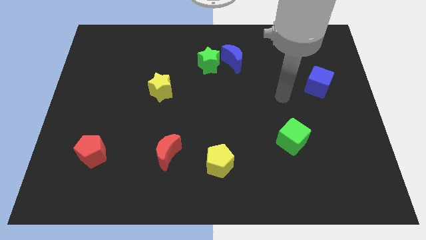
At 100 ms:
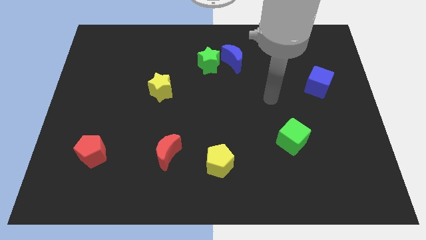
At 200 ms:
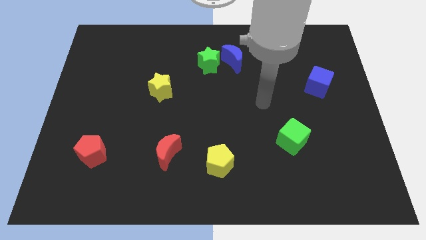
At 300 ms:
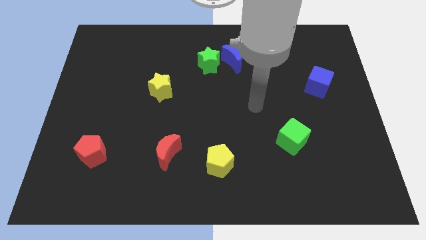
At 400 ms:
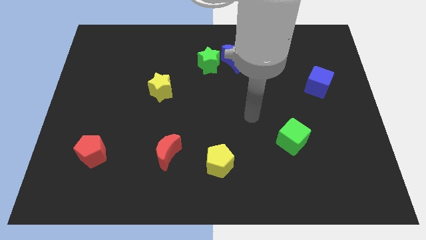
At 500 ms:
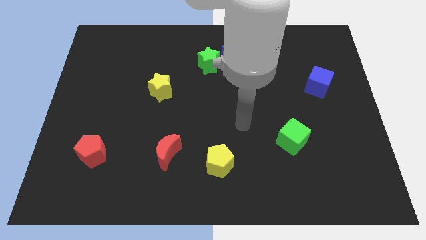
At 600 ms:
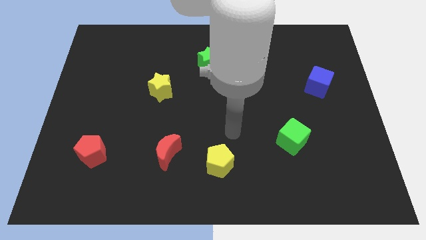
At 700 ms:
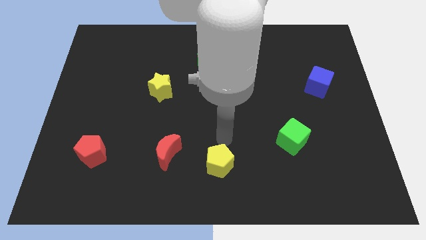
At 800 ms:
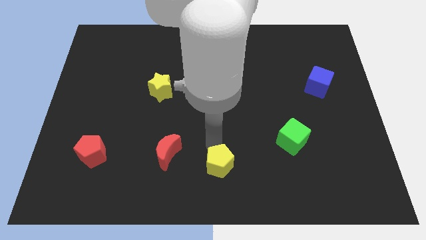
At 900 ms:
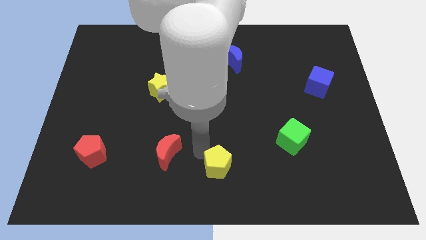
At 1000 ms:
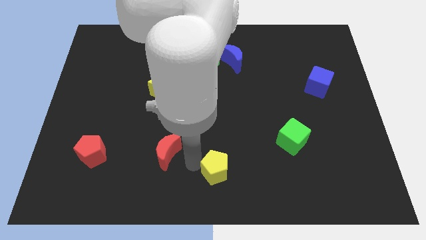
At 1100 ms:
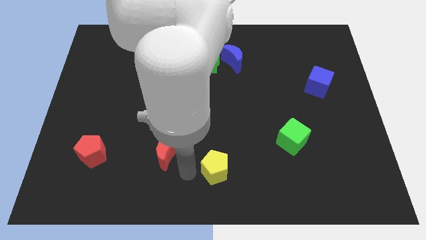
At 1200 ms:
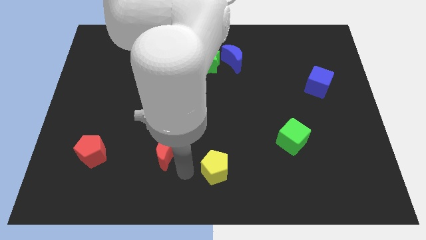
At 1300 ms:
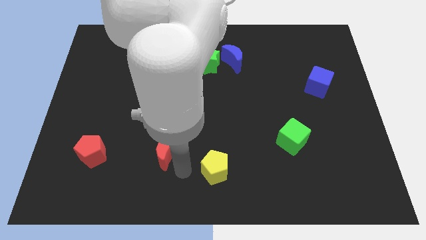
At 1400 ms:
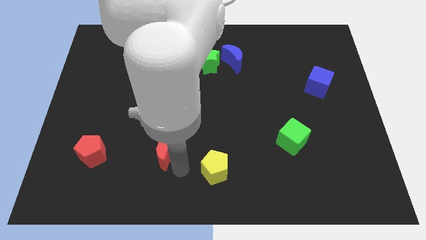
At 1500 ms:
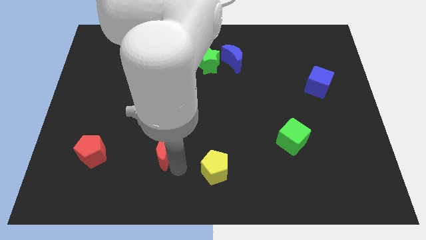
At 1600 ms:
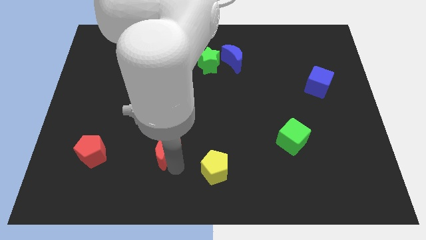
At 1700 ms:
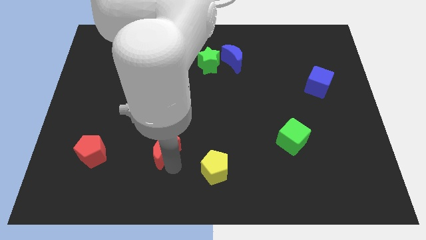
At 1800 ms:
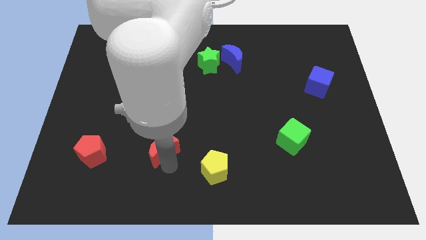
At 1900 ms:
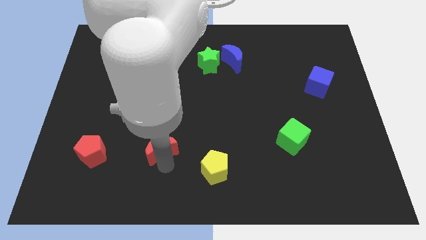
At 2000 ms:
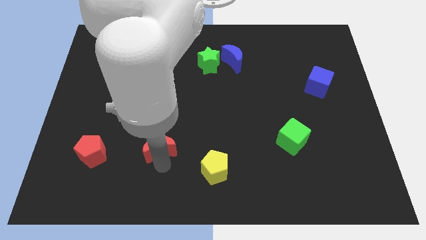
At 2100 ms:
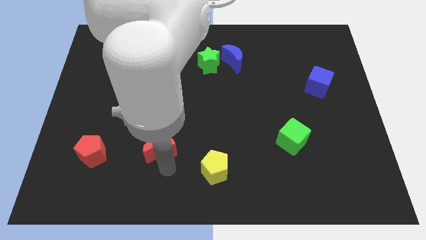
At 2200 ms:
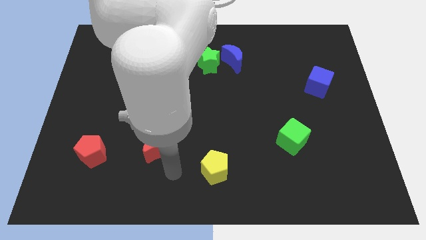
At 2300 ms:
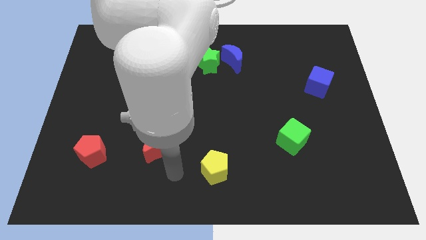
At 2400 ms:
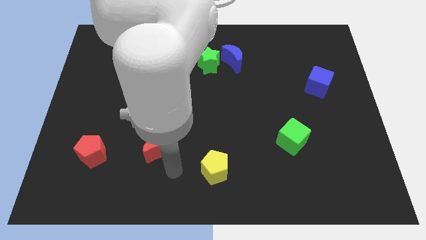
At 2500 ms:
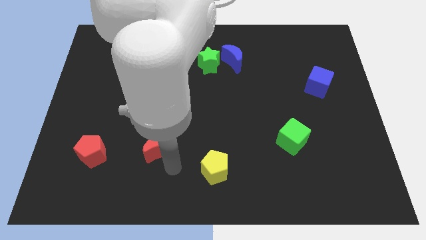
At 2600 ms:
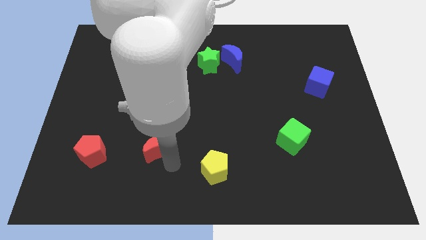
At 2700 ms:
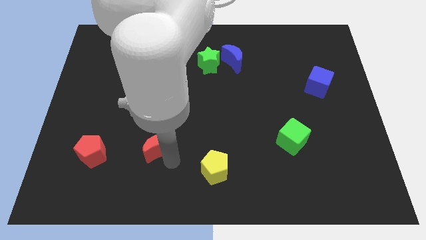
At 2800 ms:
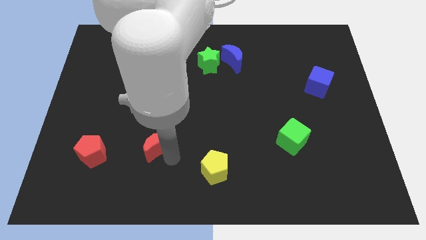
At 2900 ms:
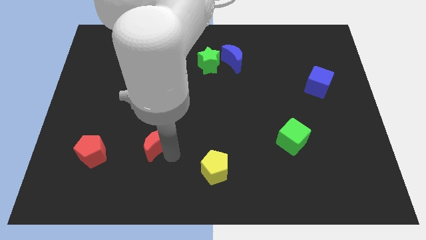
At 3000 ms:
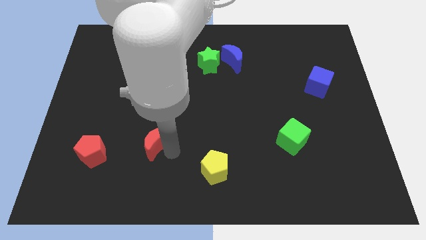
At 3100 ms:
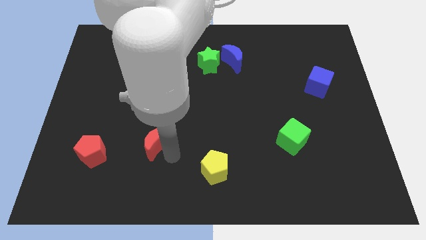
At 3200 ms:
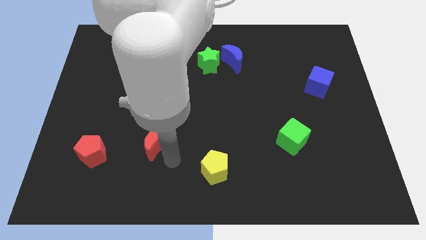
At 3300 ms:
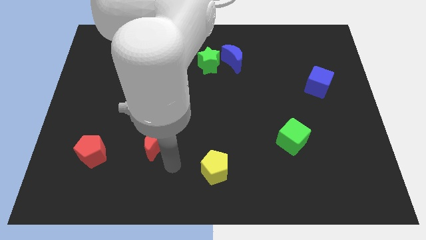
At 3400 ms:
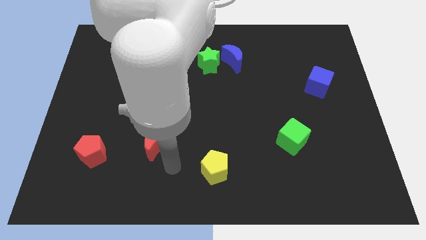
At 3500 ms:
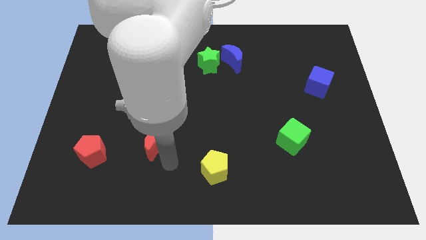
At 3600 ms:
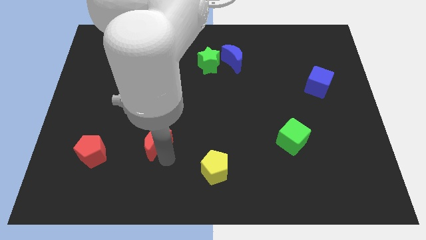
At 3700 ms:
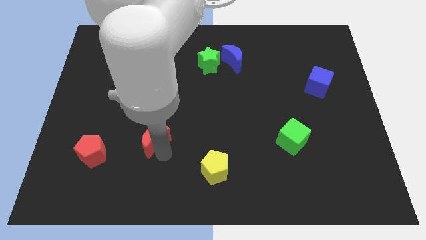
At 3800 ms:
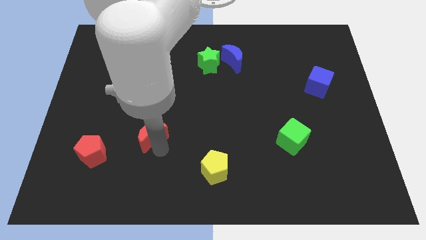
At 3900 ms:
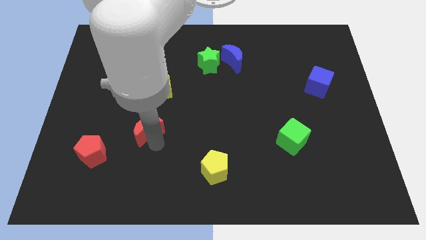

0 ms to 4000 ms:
slightly move the red moon up and to the left

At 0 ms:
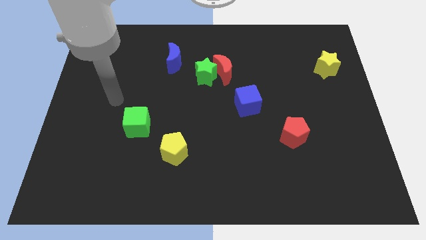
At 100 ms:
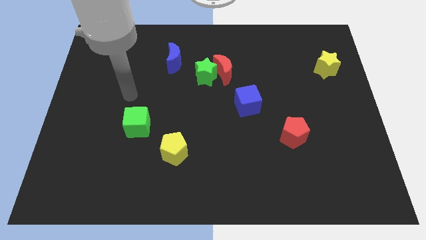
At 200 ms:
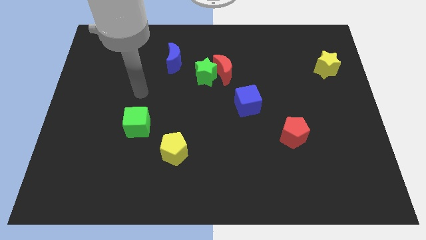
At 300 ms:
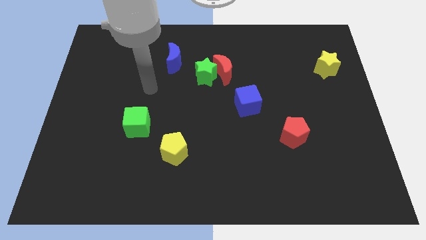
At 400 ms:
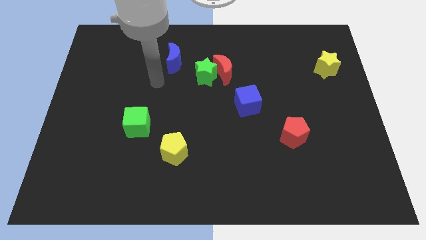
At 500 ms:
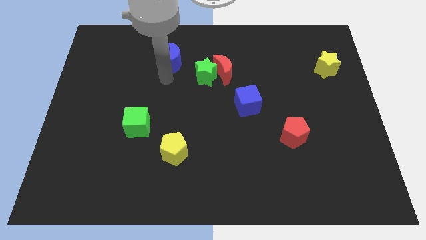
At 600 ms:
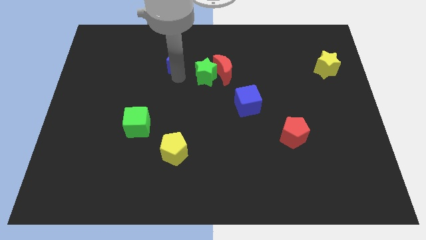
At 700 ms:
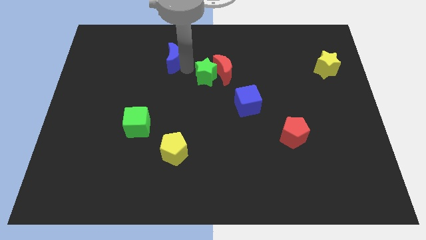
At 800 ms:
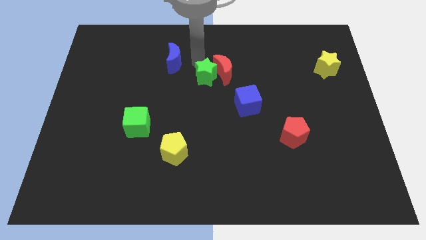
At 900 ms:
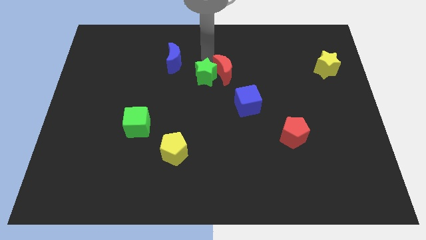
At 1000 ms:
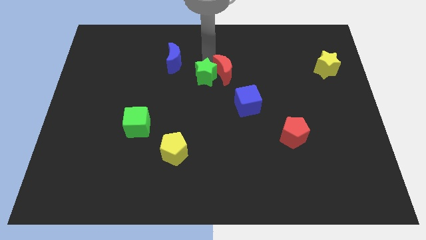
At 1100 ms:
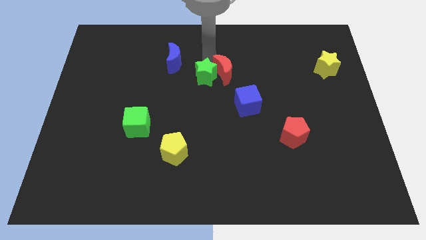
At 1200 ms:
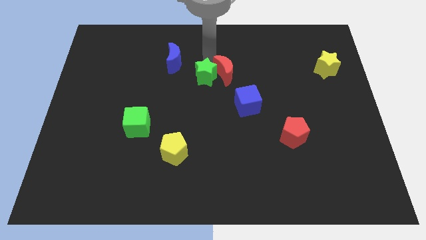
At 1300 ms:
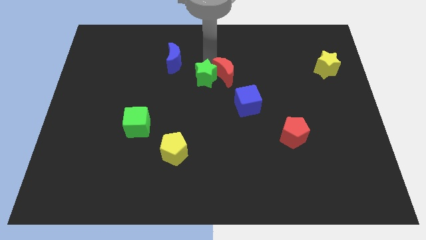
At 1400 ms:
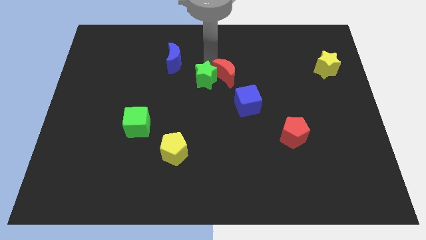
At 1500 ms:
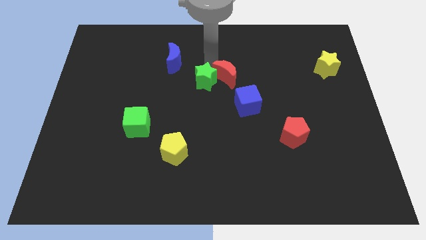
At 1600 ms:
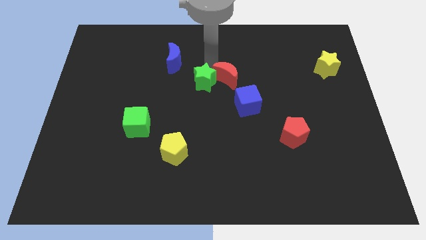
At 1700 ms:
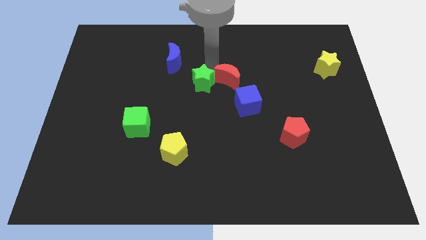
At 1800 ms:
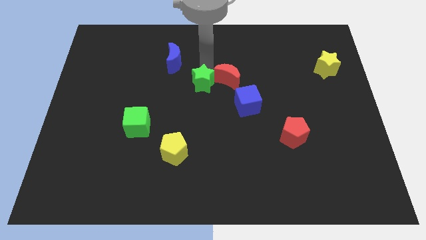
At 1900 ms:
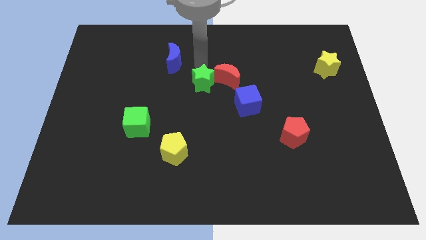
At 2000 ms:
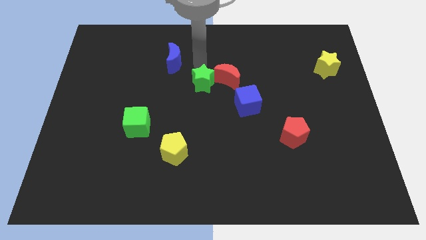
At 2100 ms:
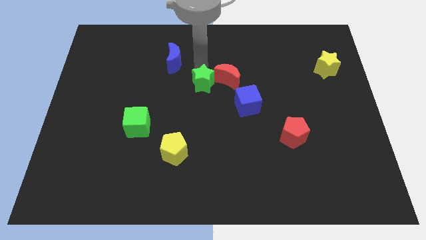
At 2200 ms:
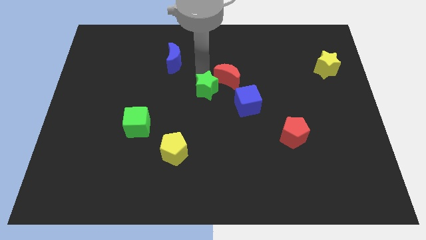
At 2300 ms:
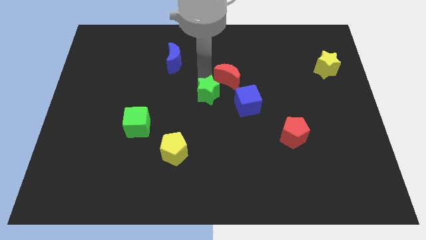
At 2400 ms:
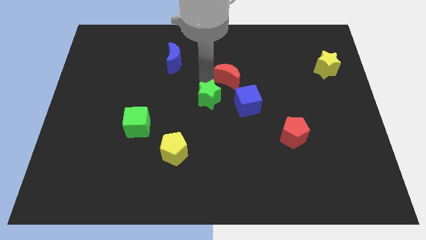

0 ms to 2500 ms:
slightly slide the green star downwards

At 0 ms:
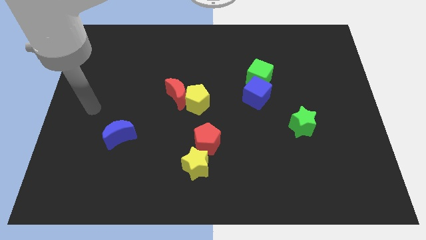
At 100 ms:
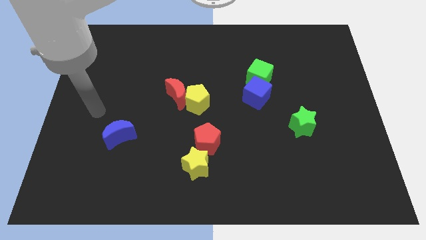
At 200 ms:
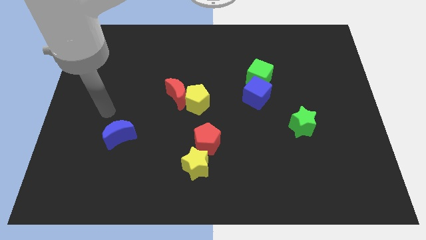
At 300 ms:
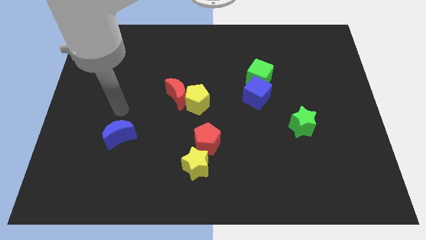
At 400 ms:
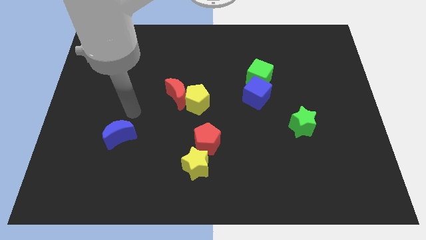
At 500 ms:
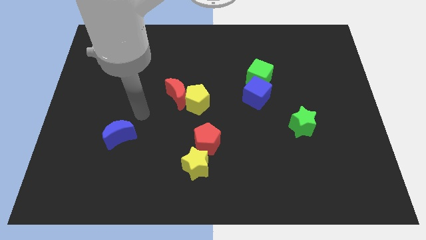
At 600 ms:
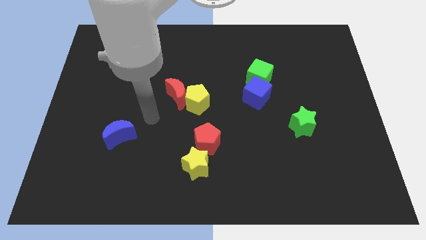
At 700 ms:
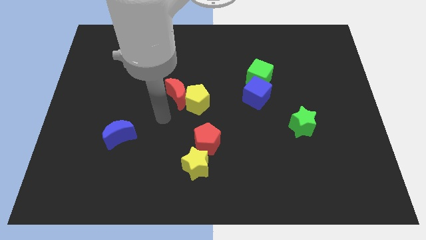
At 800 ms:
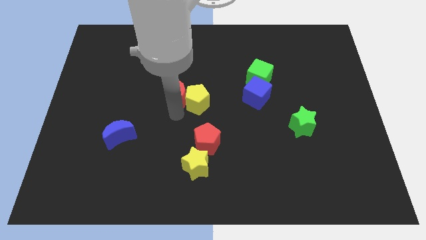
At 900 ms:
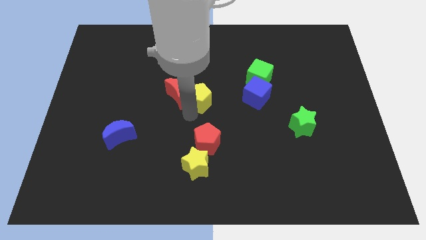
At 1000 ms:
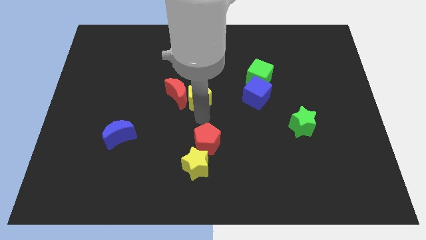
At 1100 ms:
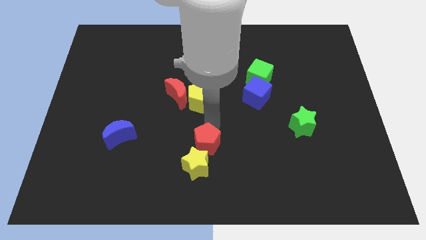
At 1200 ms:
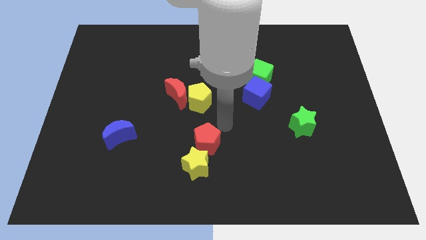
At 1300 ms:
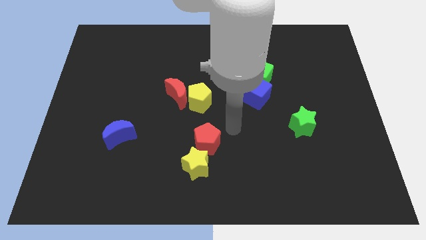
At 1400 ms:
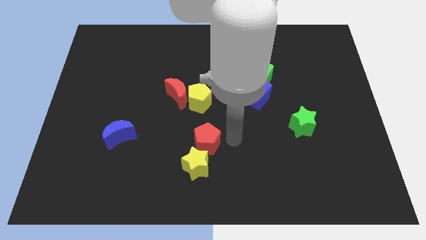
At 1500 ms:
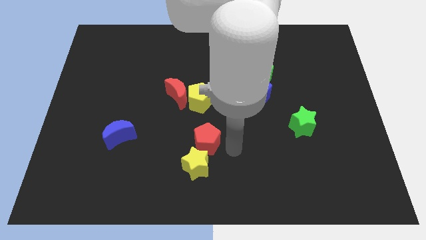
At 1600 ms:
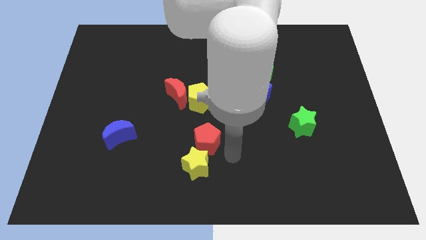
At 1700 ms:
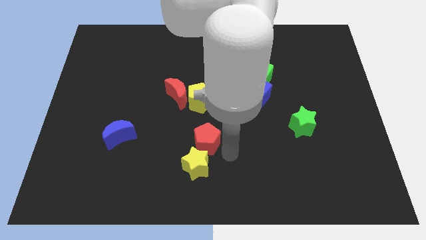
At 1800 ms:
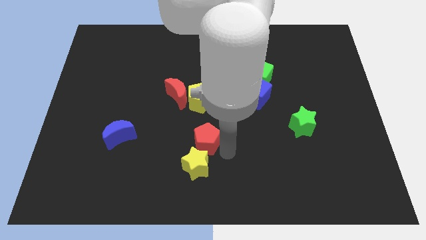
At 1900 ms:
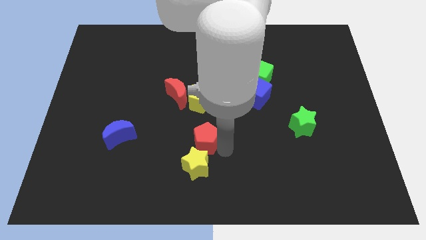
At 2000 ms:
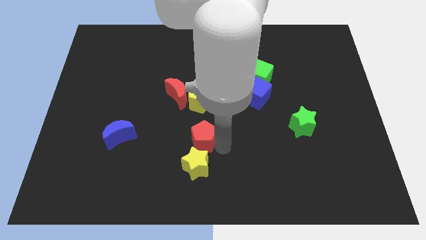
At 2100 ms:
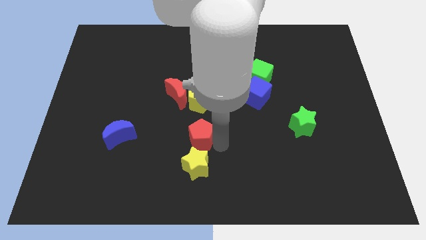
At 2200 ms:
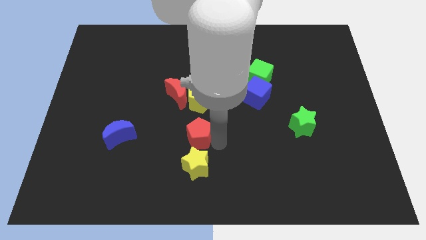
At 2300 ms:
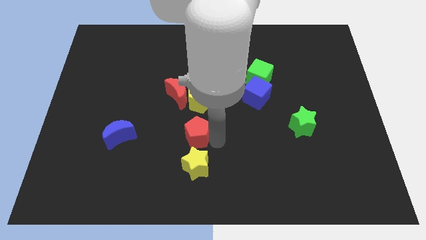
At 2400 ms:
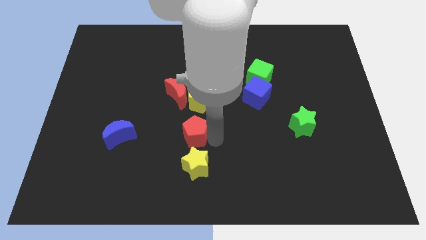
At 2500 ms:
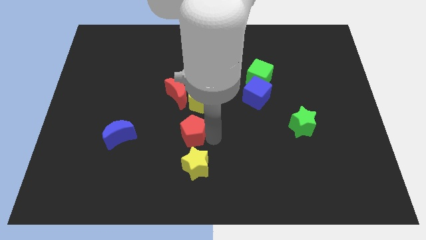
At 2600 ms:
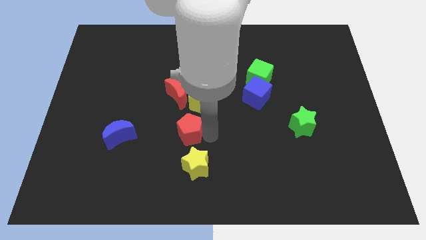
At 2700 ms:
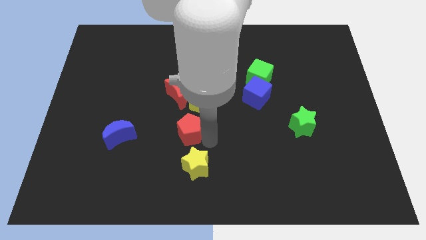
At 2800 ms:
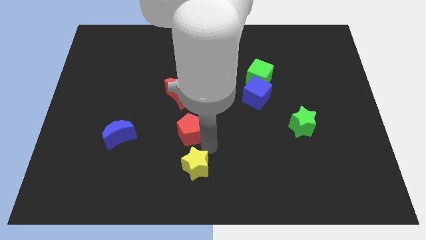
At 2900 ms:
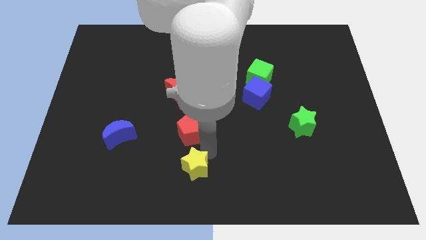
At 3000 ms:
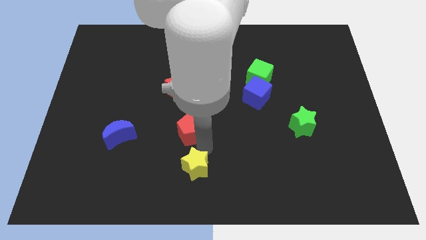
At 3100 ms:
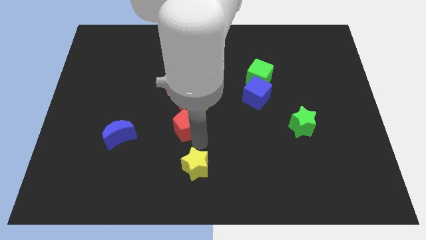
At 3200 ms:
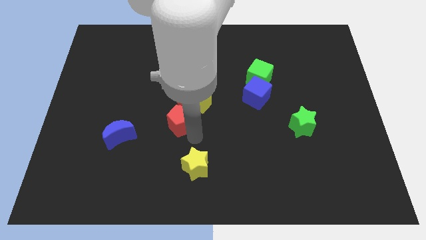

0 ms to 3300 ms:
slightly move the red pentagon up and then left
